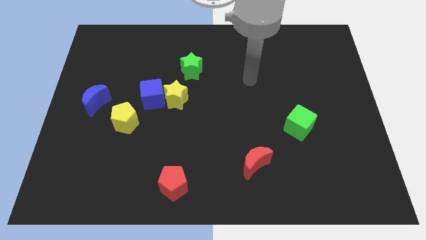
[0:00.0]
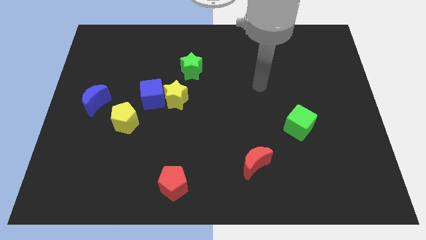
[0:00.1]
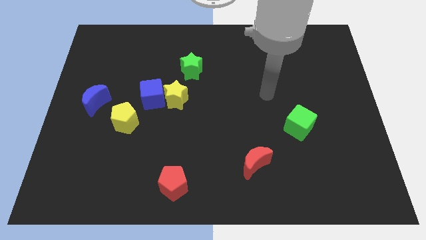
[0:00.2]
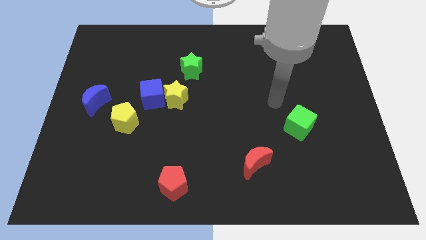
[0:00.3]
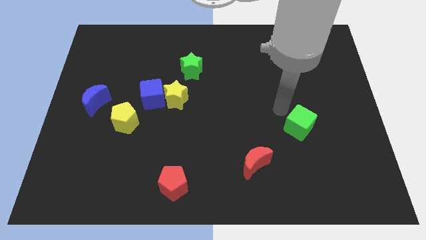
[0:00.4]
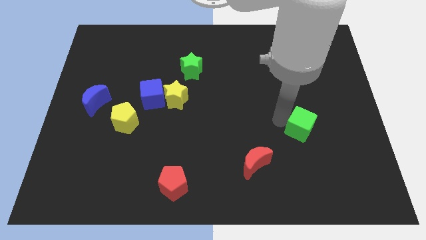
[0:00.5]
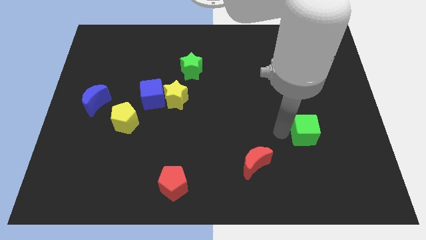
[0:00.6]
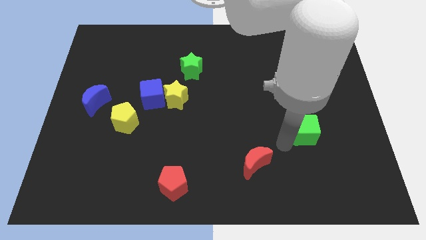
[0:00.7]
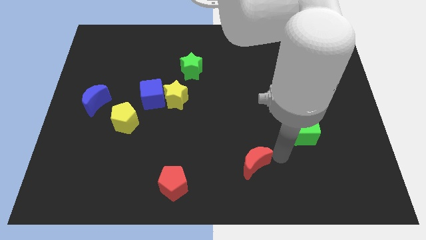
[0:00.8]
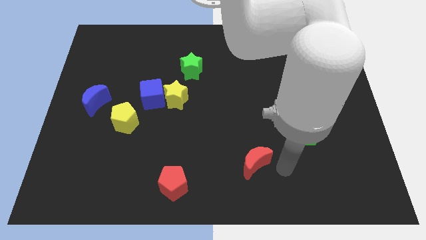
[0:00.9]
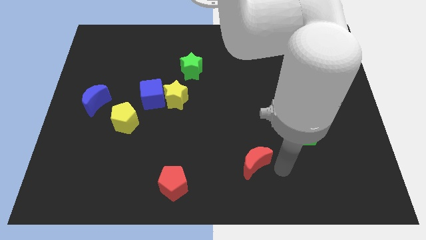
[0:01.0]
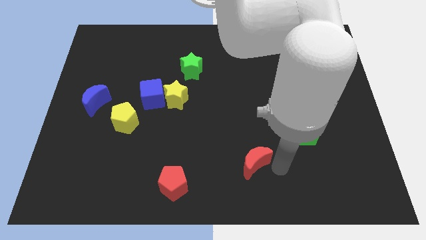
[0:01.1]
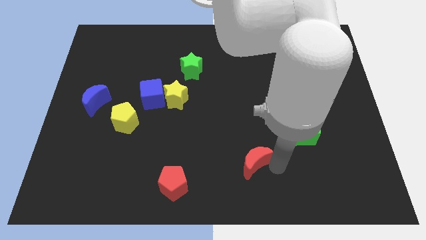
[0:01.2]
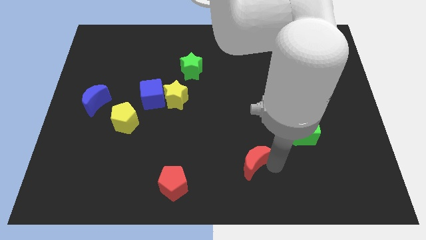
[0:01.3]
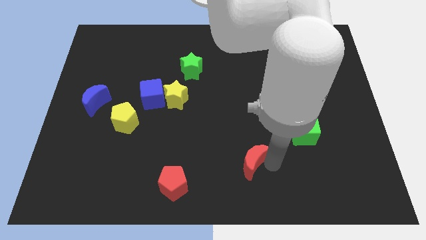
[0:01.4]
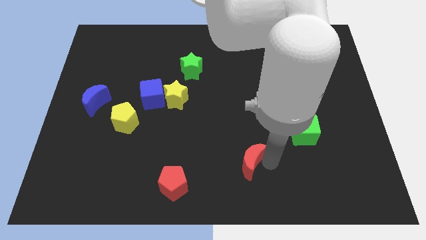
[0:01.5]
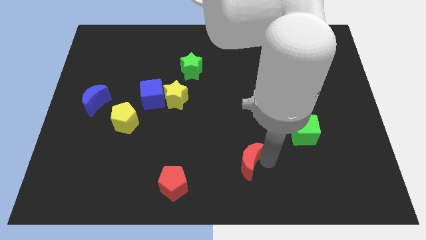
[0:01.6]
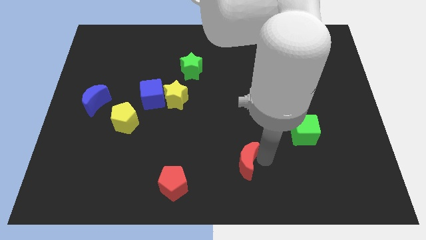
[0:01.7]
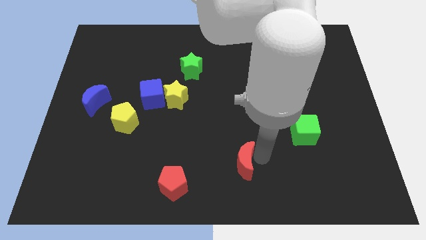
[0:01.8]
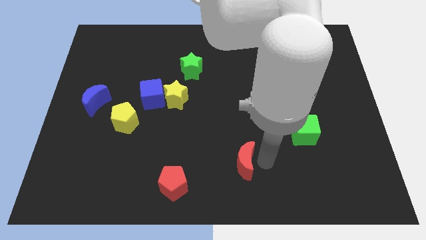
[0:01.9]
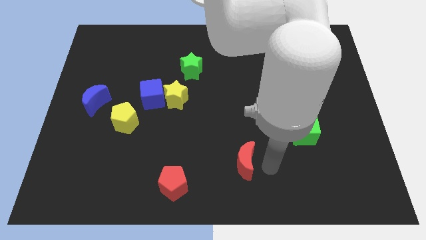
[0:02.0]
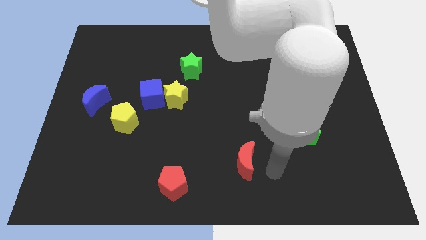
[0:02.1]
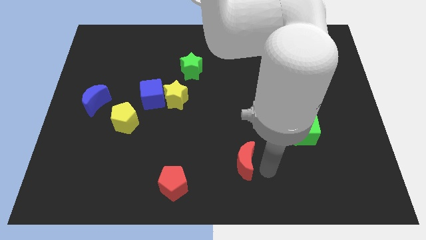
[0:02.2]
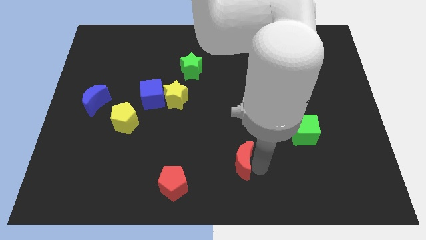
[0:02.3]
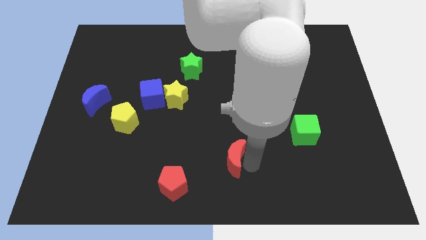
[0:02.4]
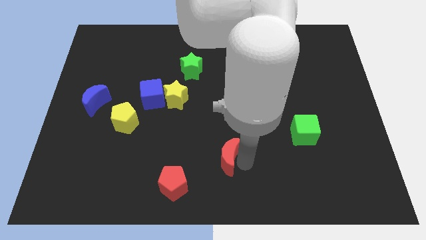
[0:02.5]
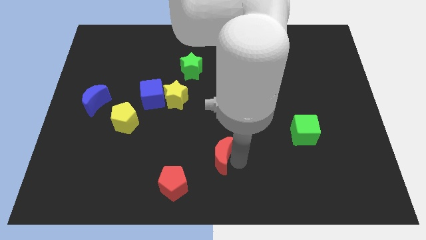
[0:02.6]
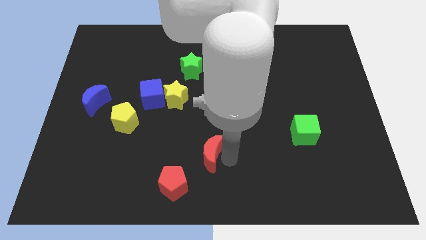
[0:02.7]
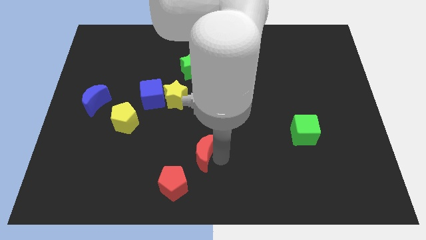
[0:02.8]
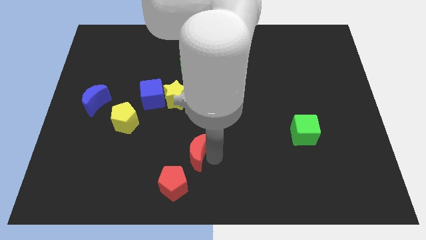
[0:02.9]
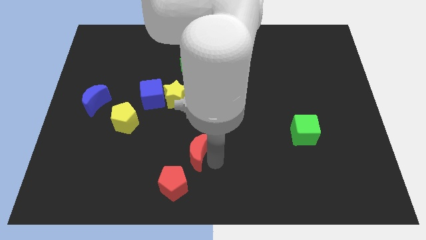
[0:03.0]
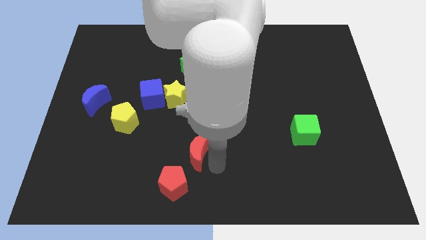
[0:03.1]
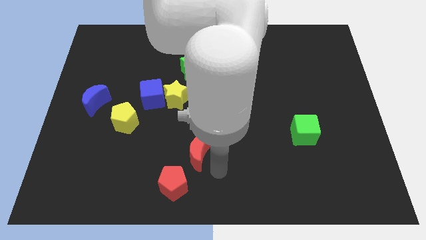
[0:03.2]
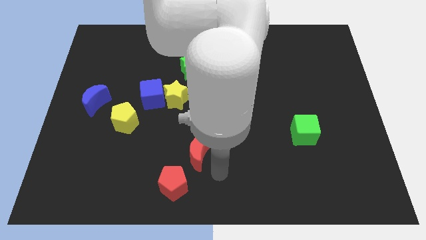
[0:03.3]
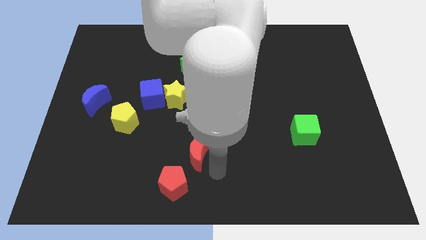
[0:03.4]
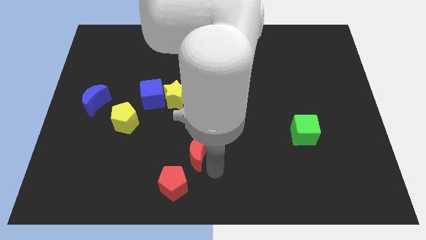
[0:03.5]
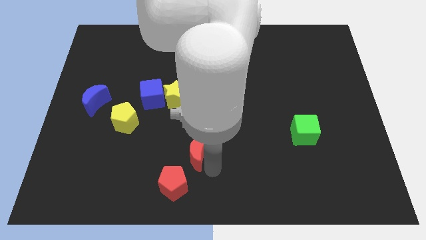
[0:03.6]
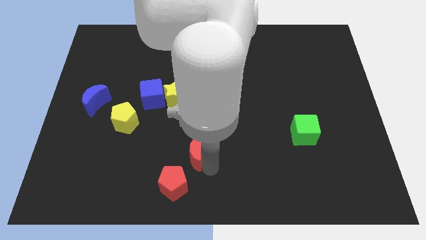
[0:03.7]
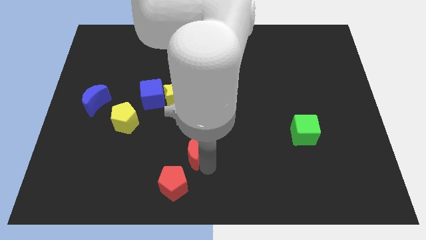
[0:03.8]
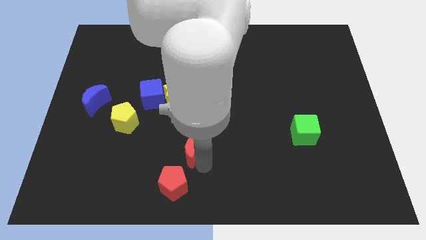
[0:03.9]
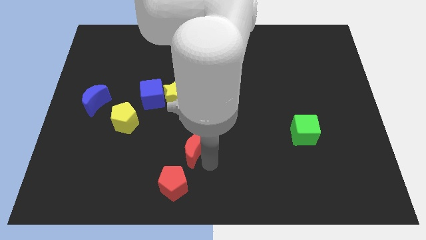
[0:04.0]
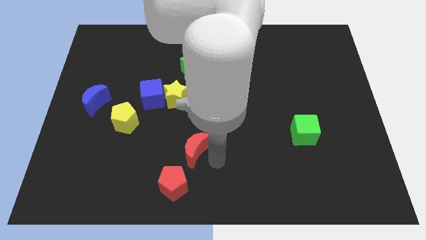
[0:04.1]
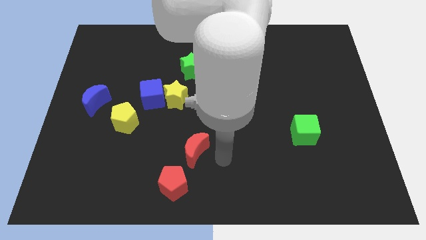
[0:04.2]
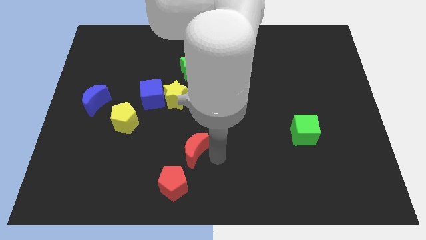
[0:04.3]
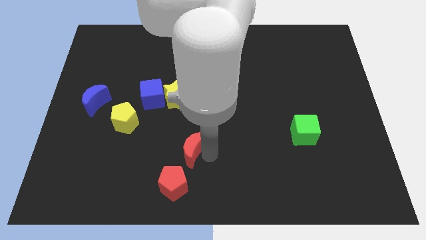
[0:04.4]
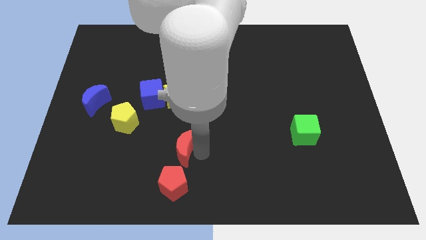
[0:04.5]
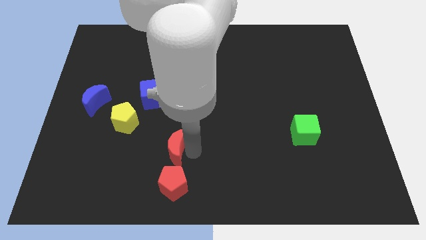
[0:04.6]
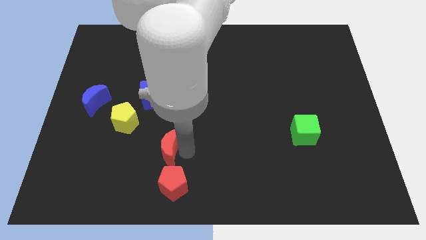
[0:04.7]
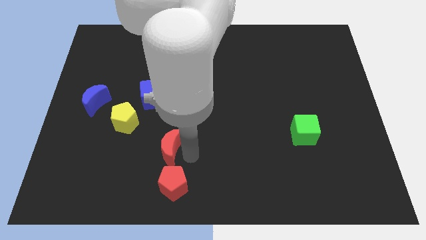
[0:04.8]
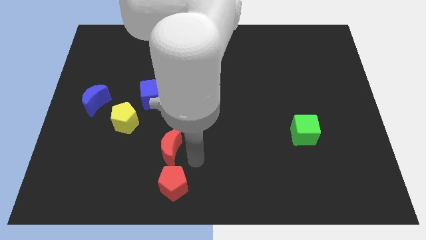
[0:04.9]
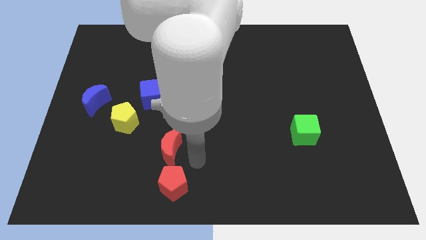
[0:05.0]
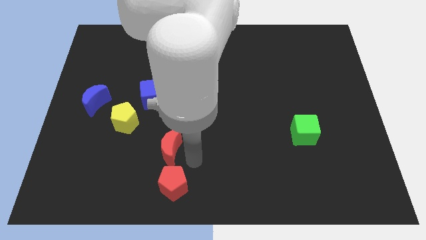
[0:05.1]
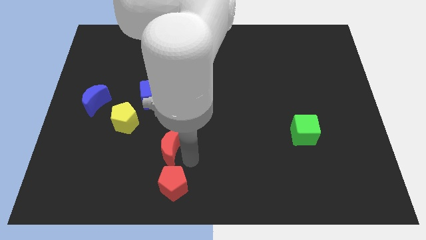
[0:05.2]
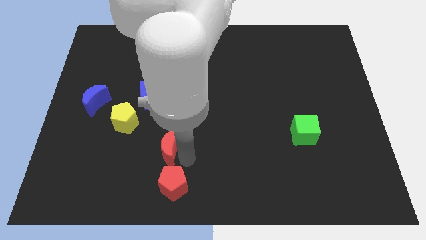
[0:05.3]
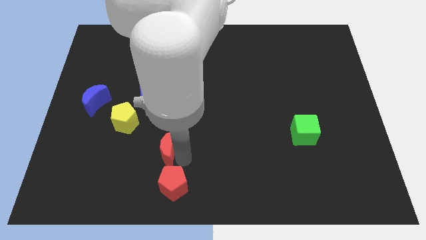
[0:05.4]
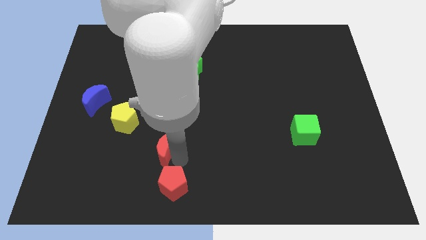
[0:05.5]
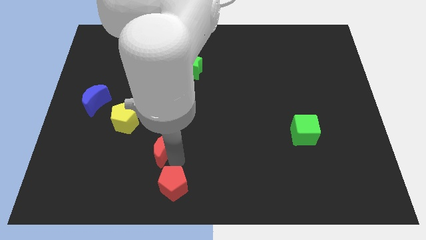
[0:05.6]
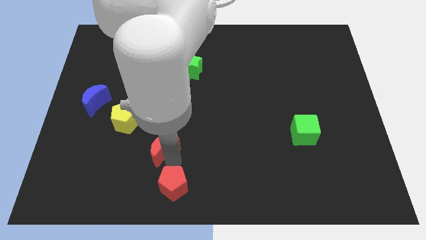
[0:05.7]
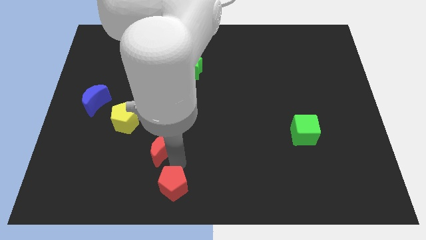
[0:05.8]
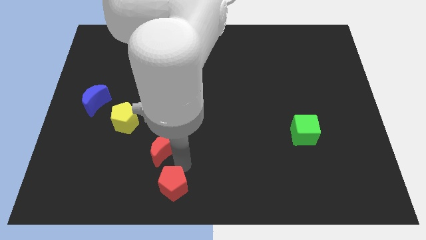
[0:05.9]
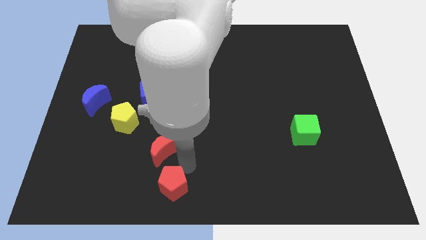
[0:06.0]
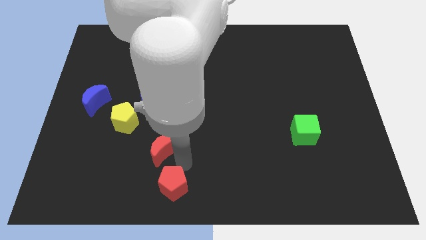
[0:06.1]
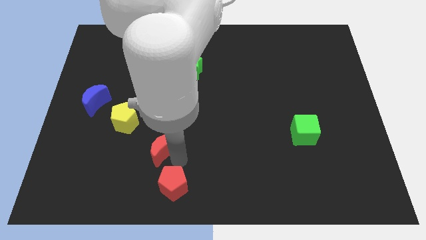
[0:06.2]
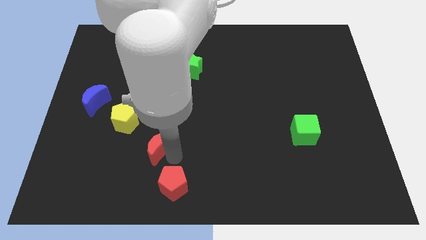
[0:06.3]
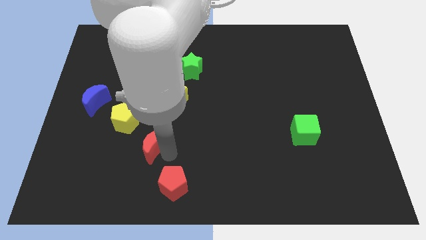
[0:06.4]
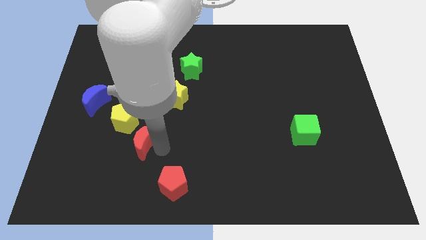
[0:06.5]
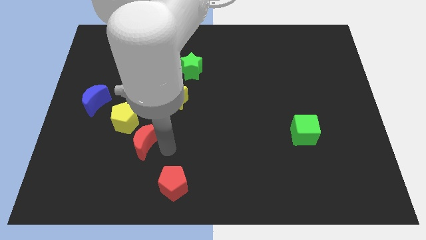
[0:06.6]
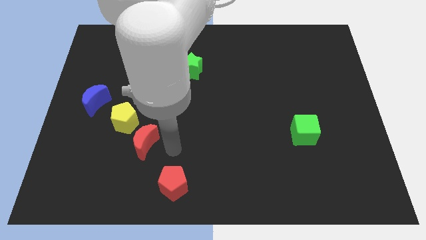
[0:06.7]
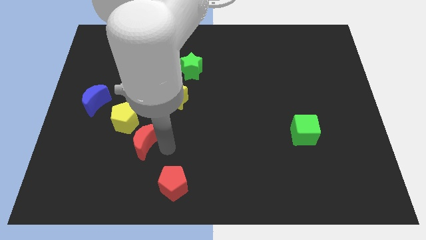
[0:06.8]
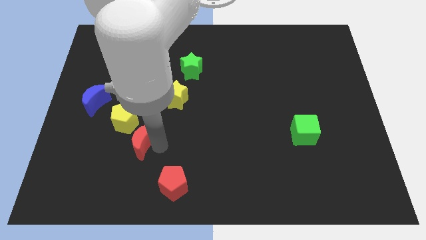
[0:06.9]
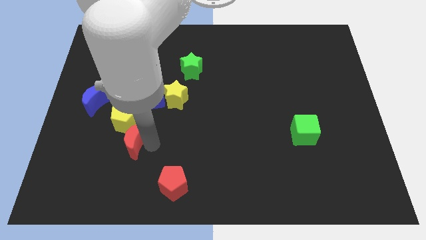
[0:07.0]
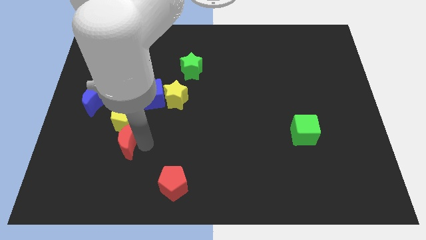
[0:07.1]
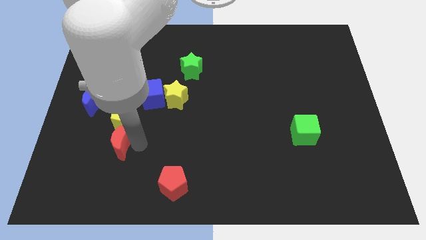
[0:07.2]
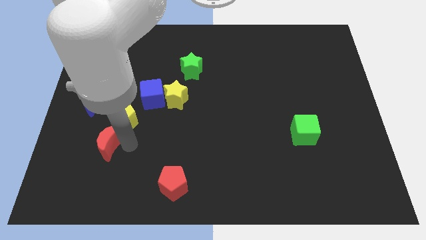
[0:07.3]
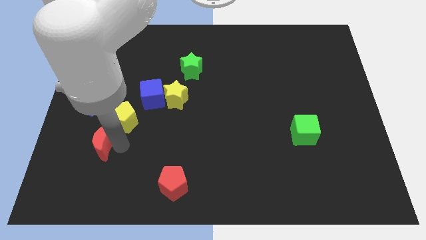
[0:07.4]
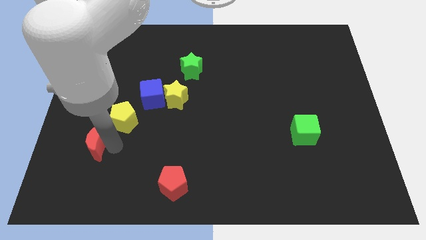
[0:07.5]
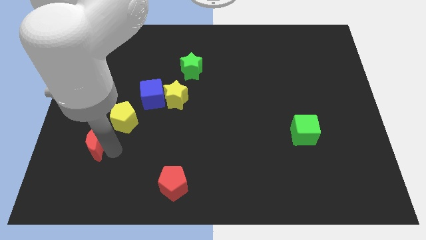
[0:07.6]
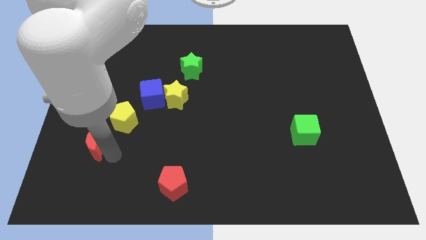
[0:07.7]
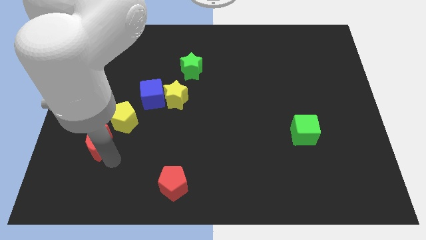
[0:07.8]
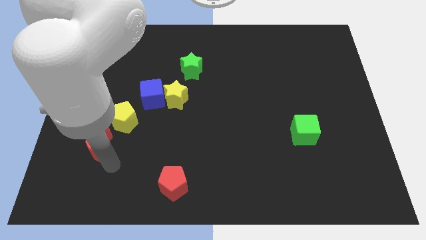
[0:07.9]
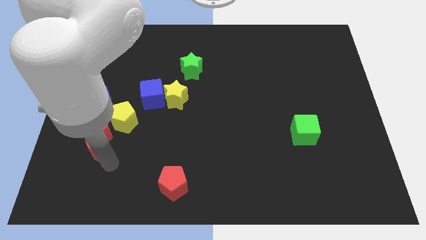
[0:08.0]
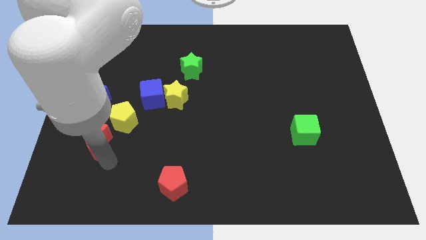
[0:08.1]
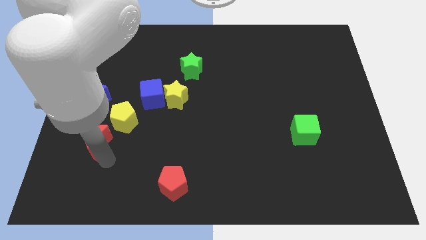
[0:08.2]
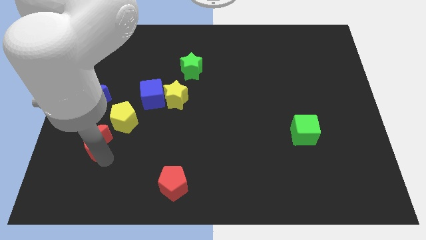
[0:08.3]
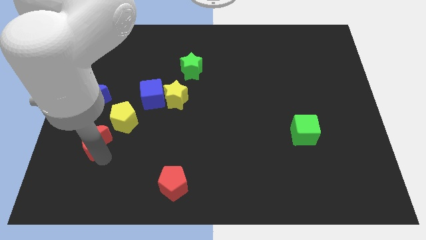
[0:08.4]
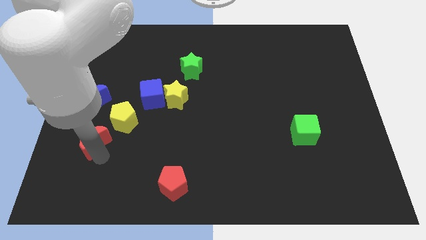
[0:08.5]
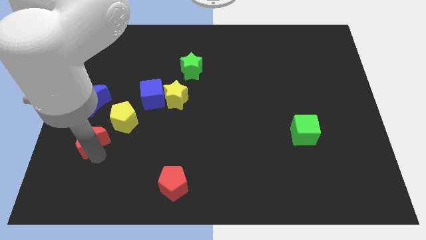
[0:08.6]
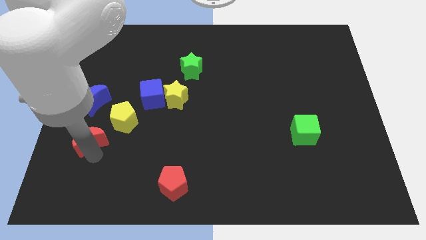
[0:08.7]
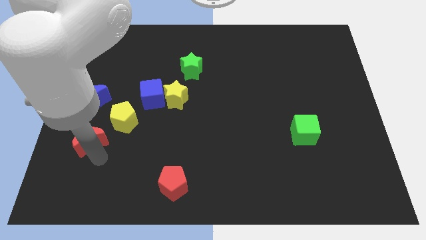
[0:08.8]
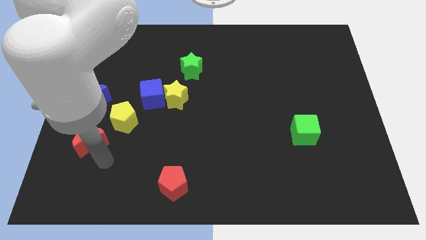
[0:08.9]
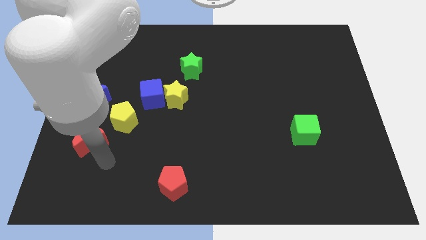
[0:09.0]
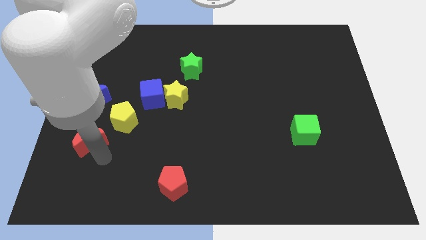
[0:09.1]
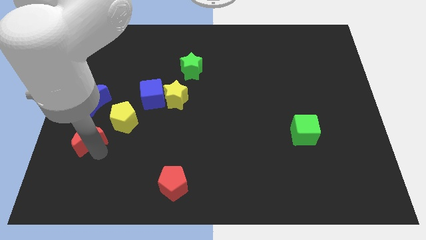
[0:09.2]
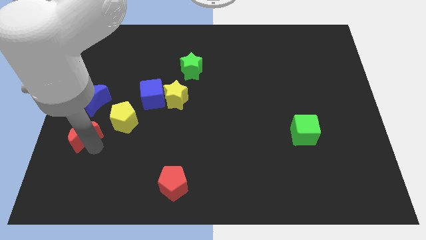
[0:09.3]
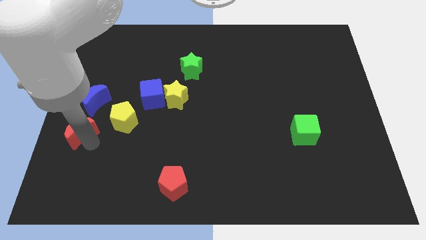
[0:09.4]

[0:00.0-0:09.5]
push the red moon to the center left
